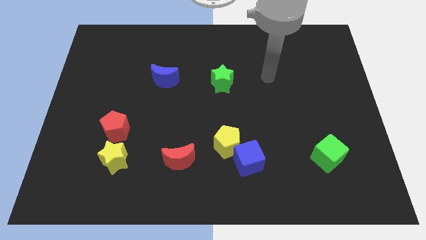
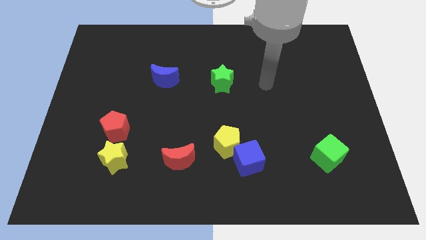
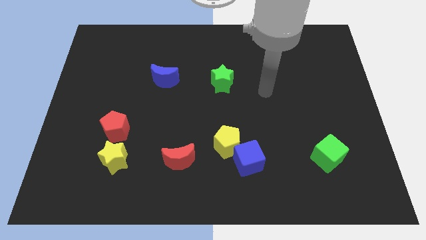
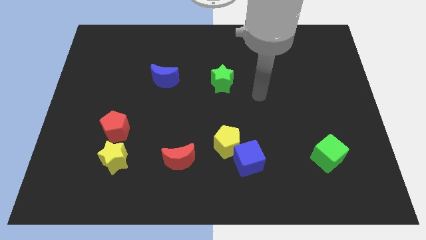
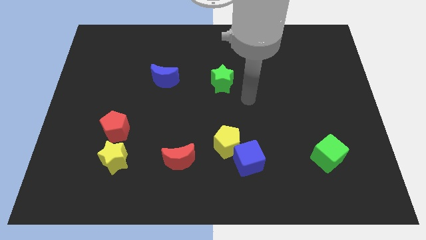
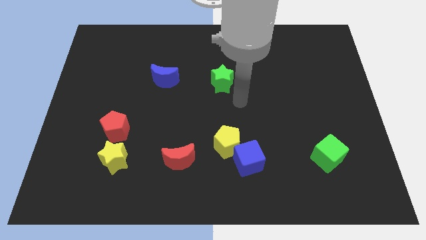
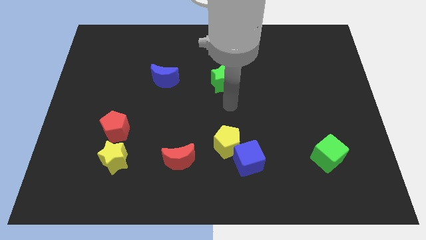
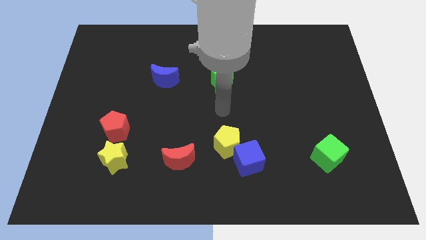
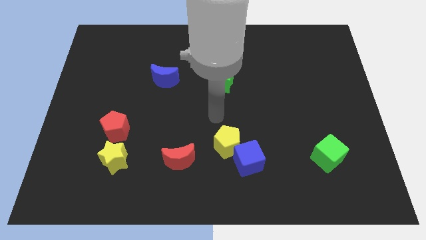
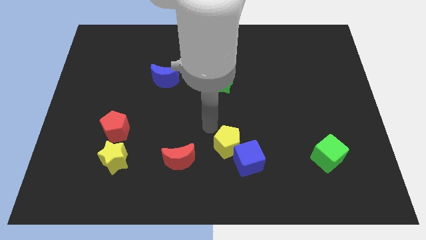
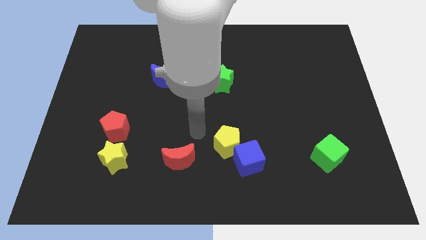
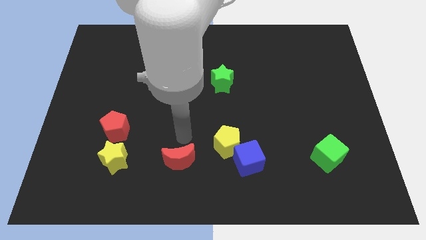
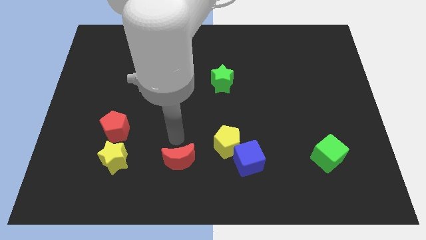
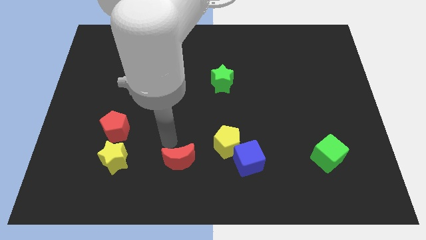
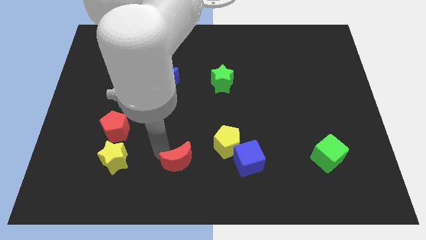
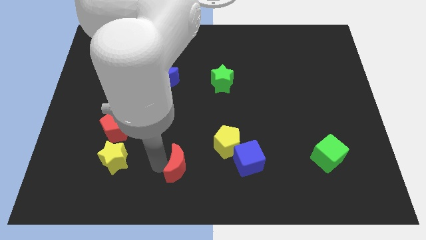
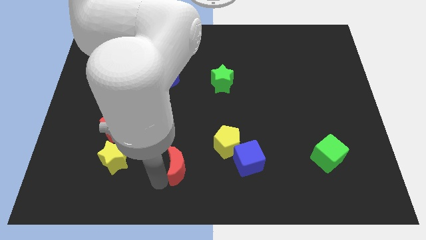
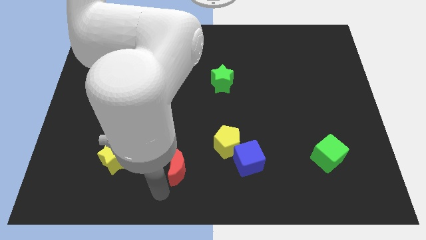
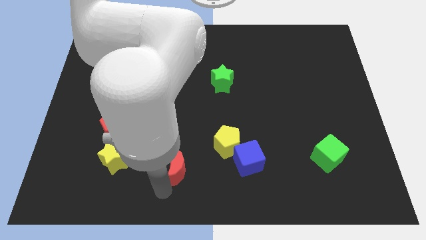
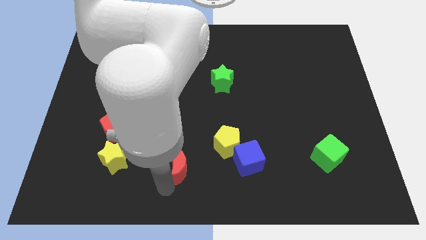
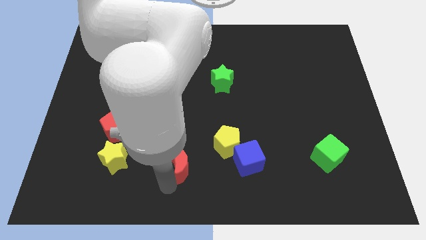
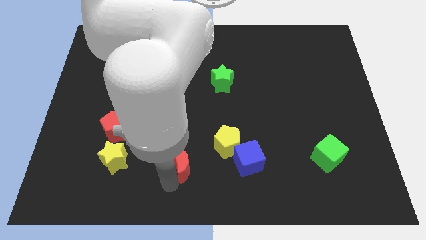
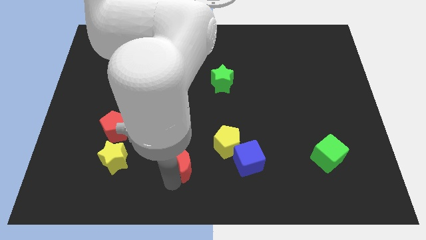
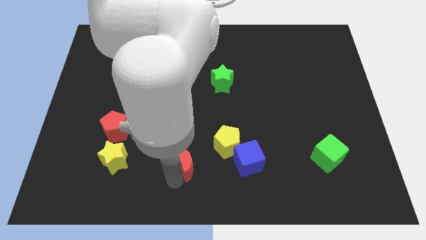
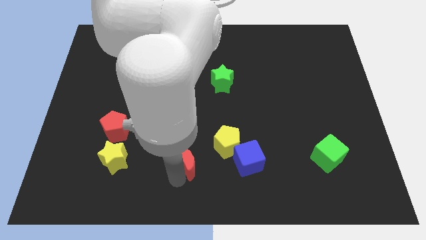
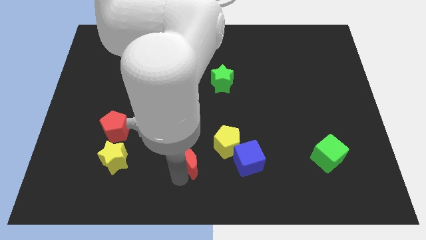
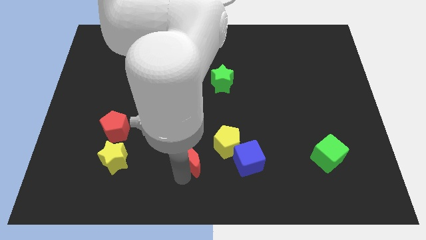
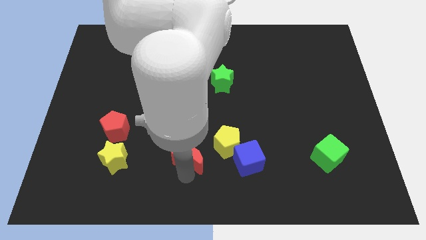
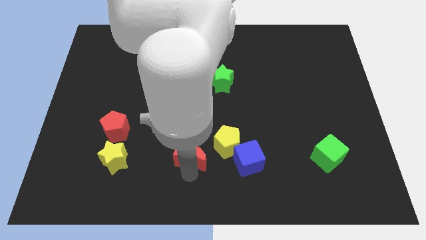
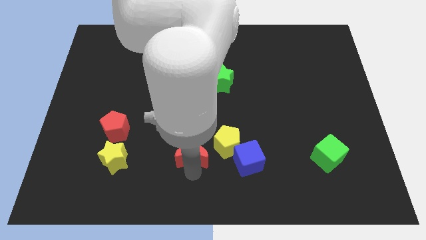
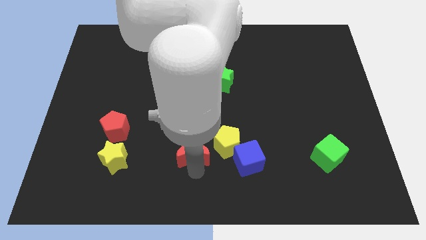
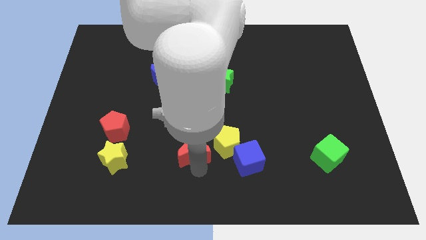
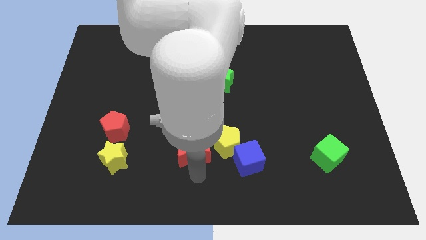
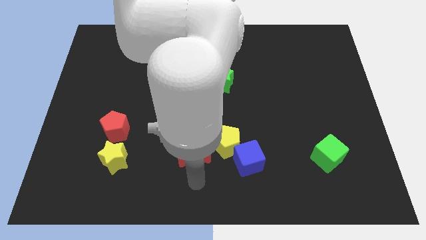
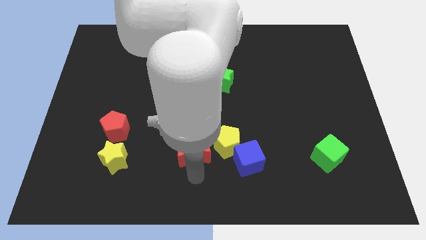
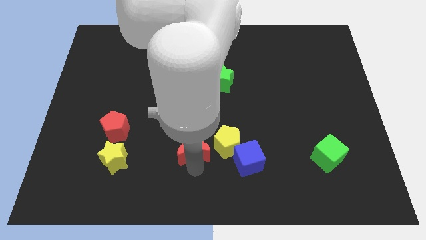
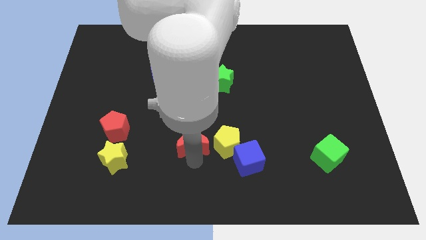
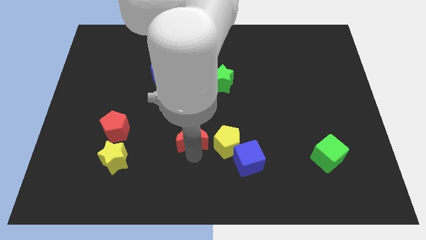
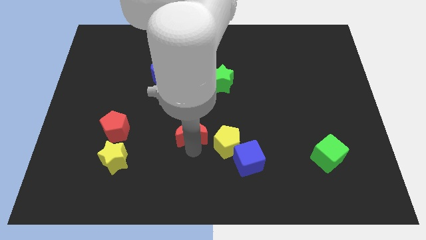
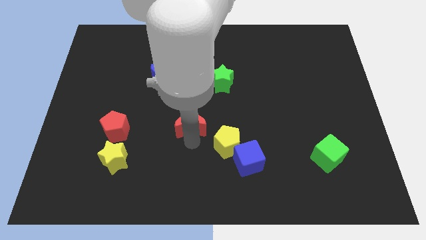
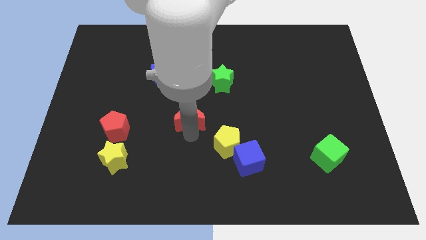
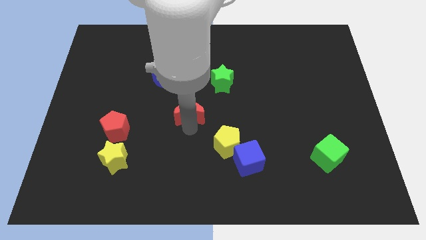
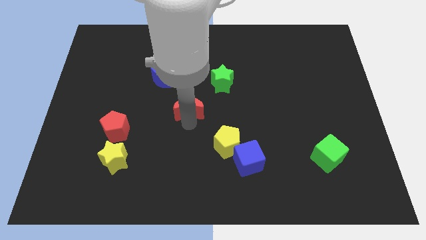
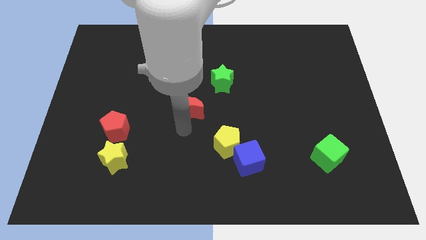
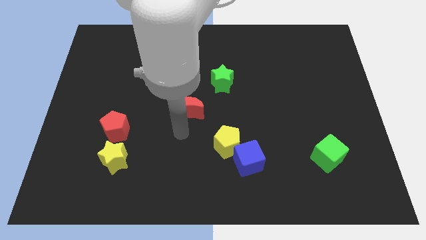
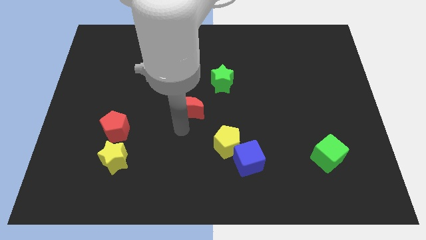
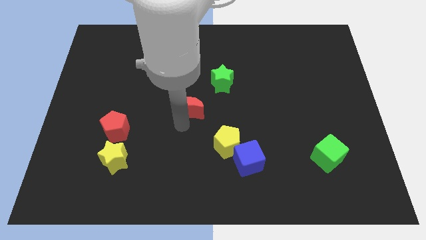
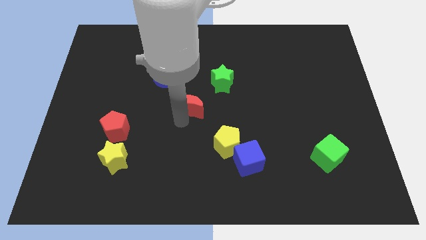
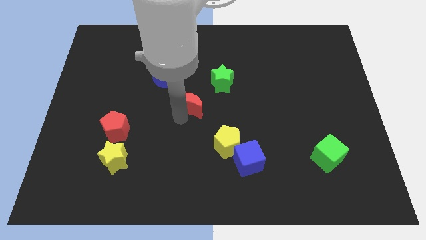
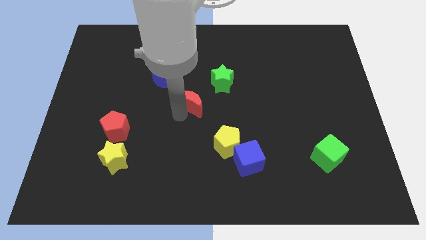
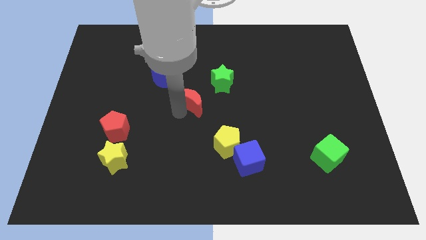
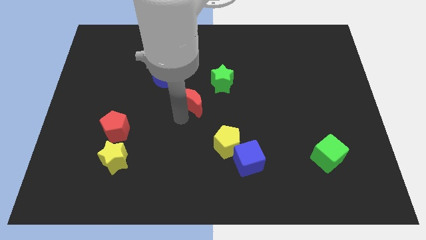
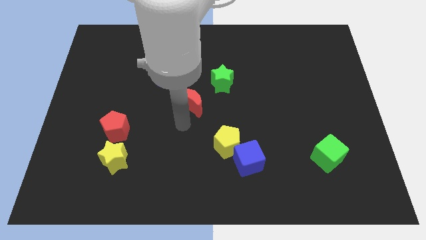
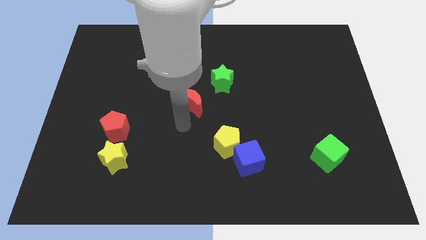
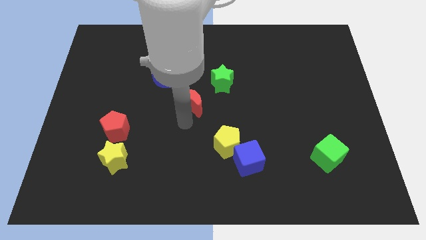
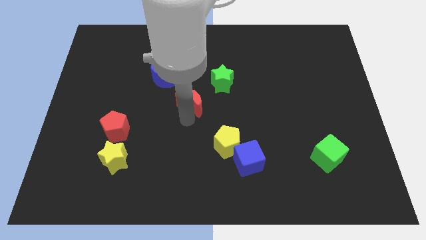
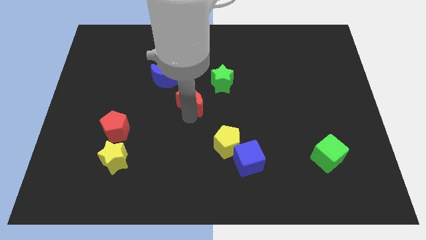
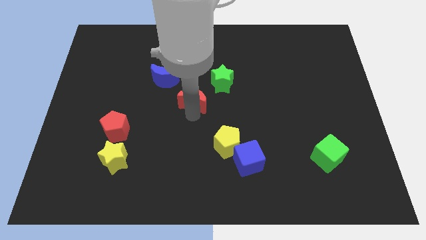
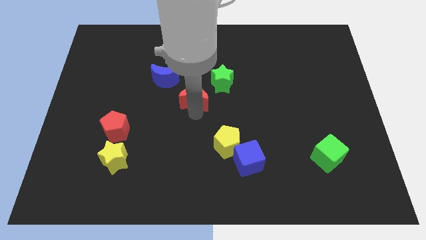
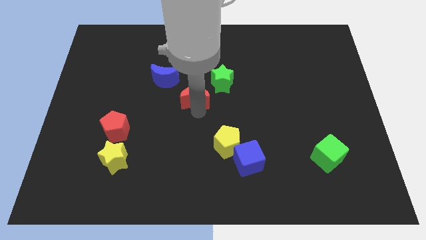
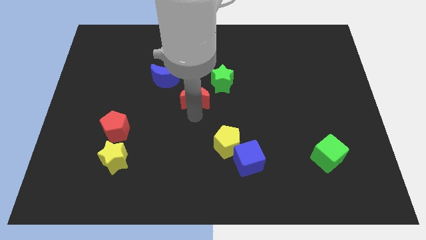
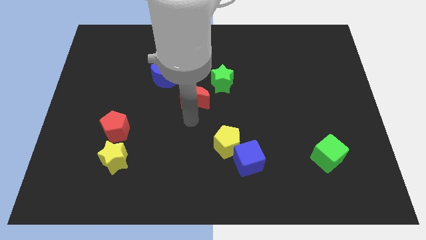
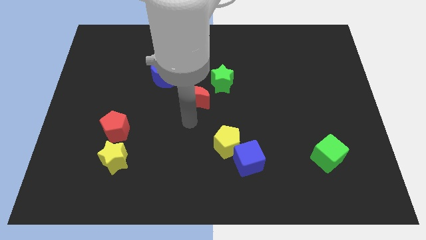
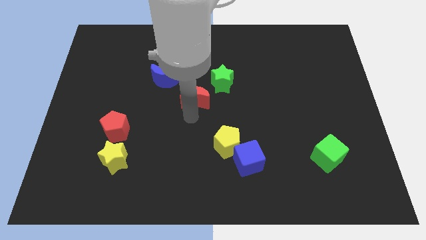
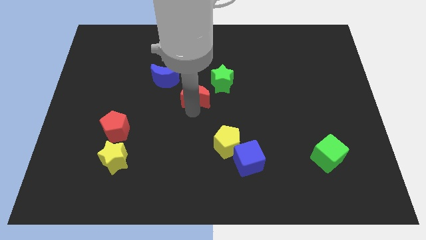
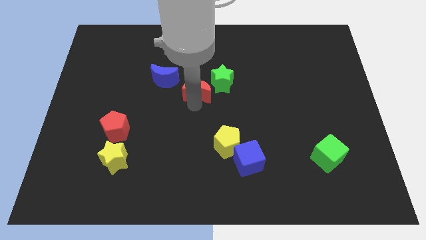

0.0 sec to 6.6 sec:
push the red moon right of the blue moon

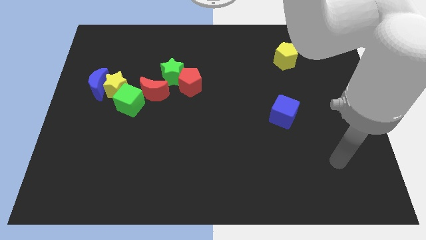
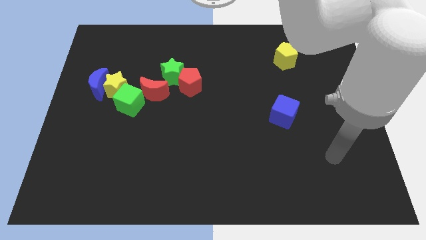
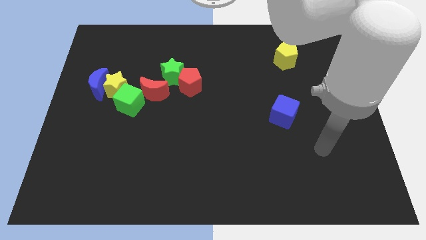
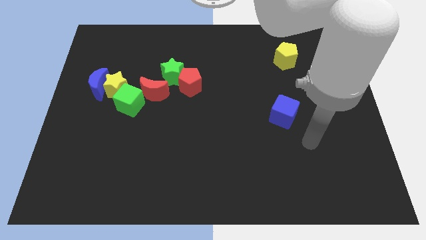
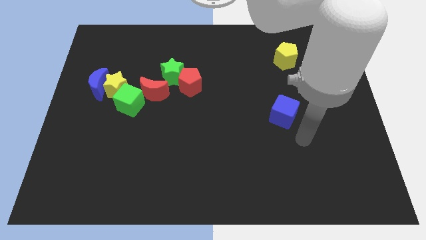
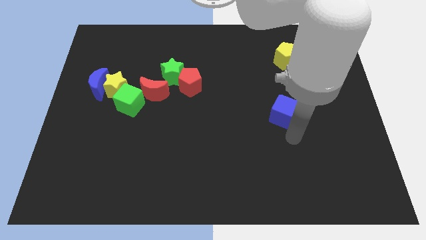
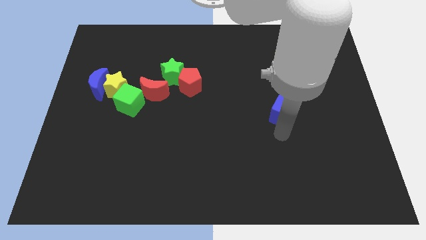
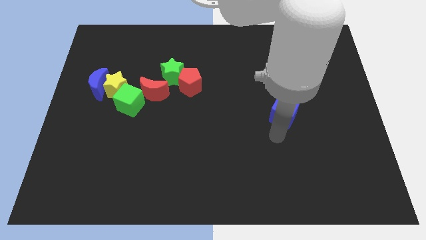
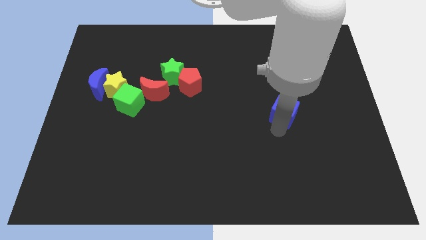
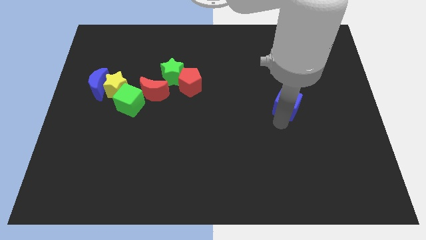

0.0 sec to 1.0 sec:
push the blue cube to the bottom side of the yellow pentagon
